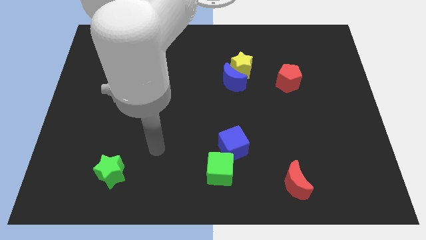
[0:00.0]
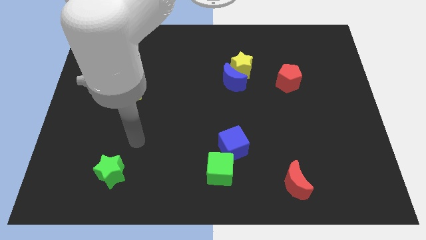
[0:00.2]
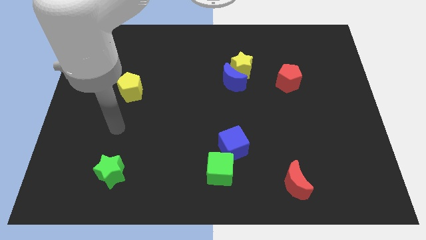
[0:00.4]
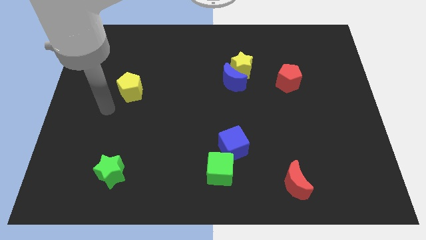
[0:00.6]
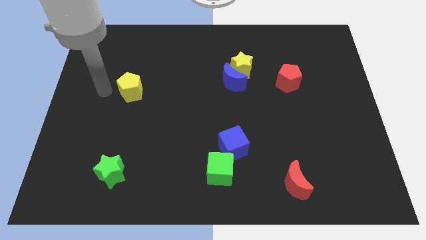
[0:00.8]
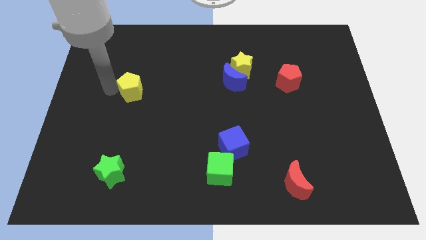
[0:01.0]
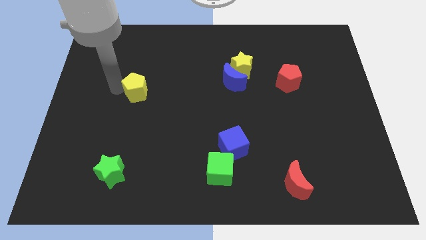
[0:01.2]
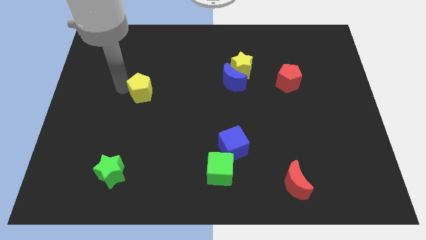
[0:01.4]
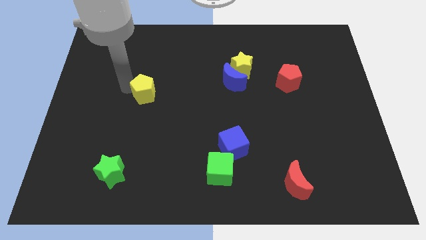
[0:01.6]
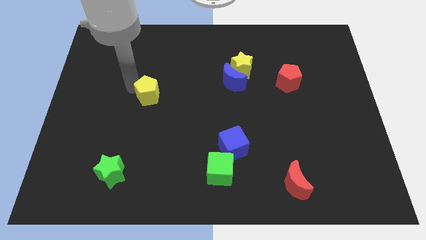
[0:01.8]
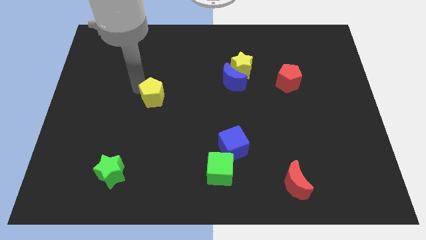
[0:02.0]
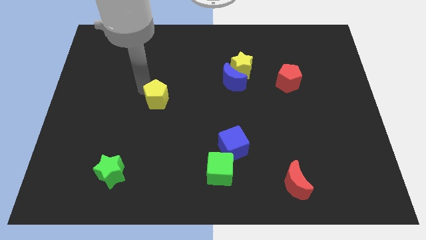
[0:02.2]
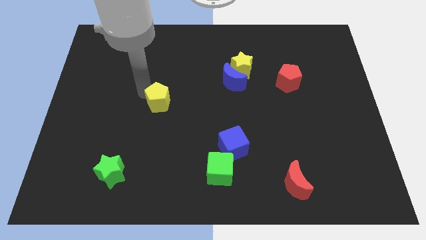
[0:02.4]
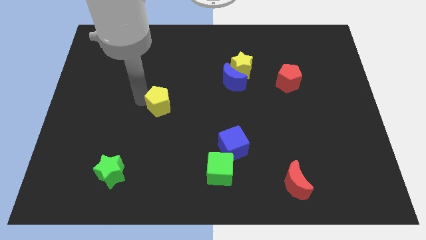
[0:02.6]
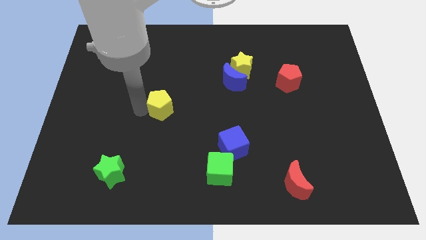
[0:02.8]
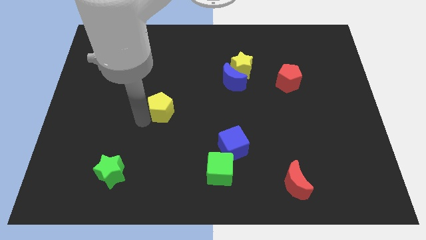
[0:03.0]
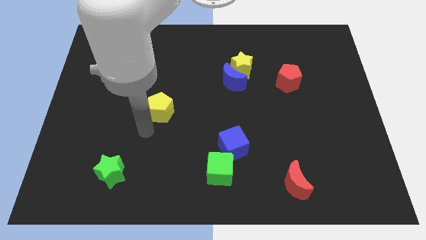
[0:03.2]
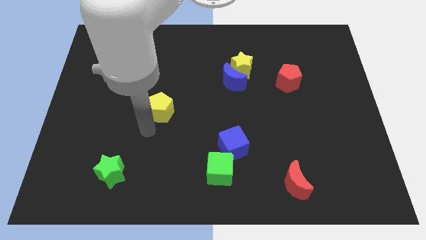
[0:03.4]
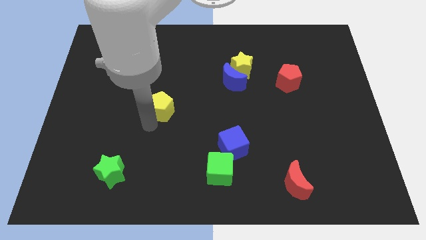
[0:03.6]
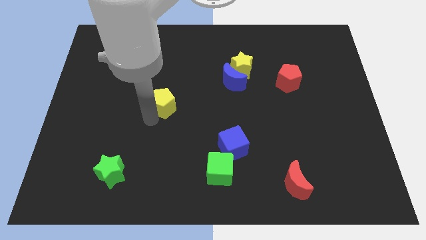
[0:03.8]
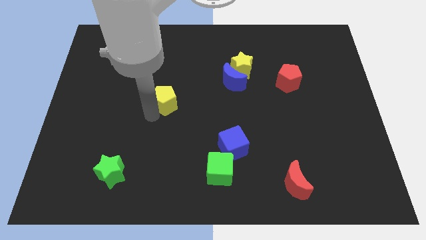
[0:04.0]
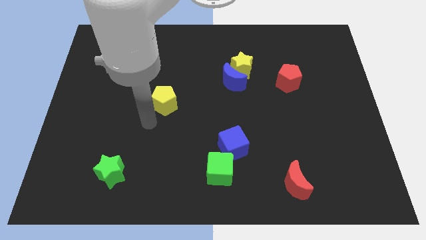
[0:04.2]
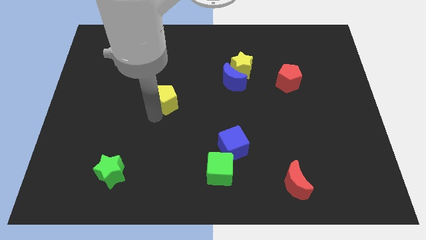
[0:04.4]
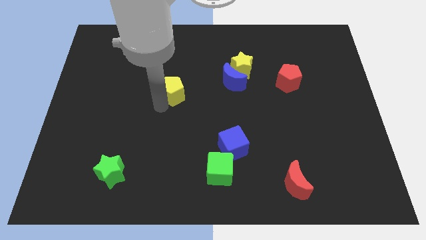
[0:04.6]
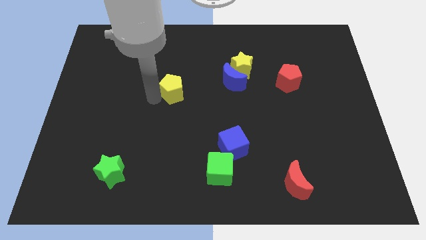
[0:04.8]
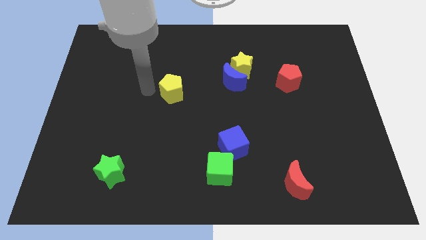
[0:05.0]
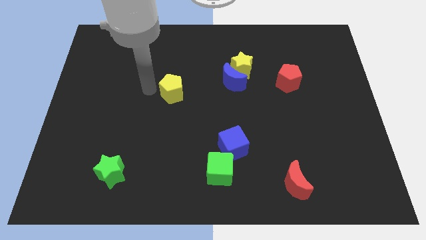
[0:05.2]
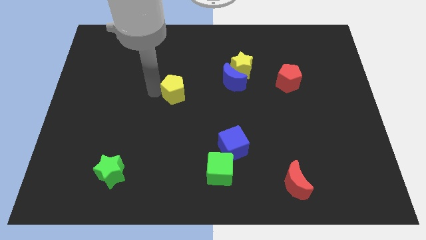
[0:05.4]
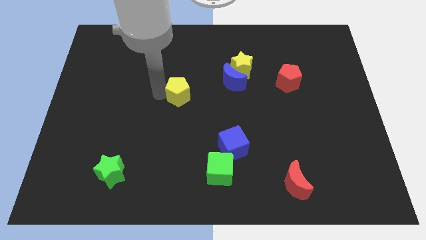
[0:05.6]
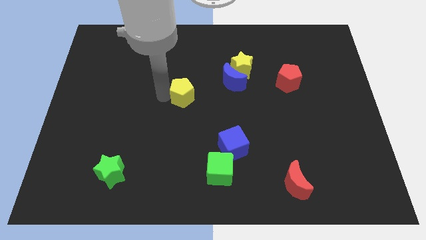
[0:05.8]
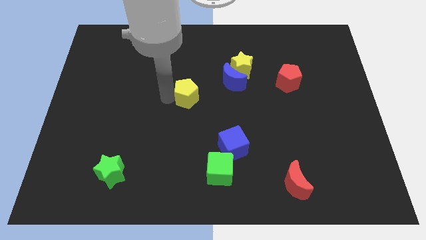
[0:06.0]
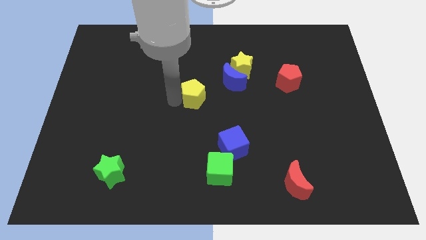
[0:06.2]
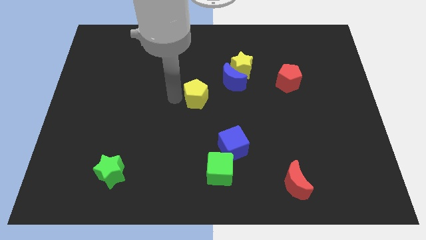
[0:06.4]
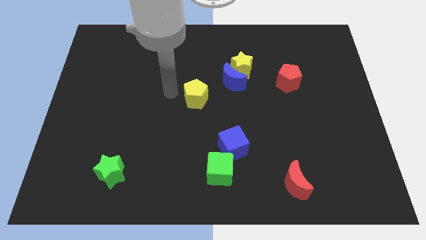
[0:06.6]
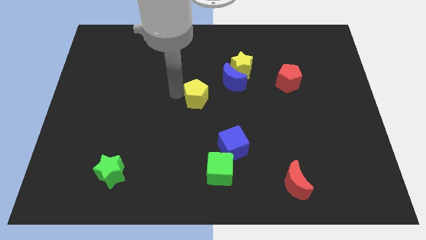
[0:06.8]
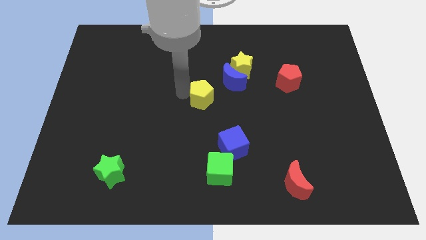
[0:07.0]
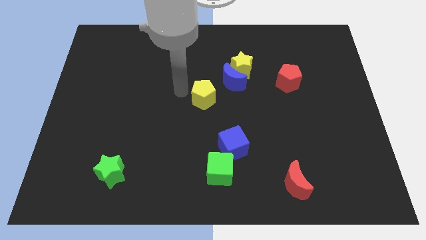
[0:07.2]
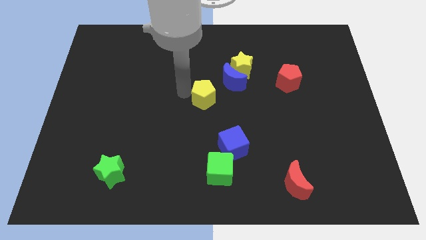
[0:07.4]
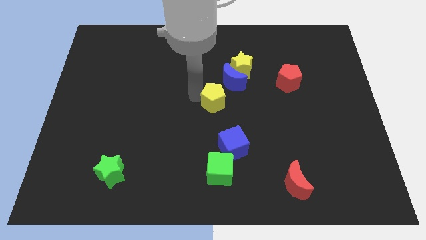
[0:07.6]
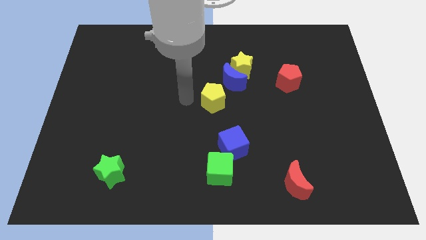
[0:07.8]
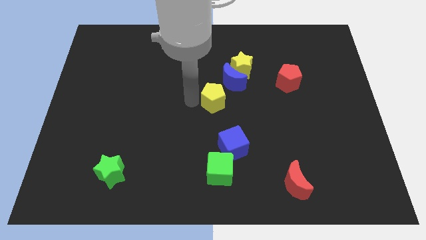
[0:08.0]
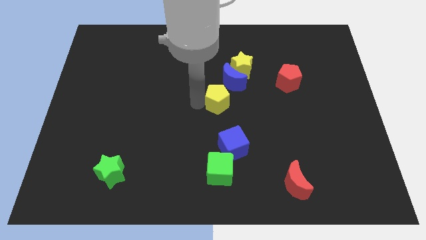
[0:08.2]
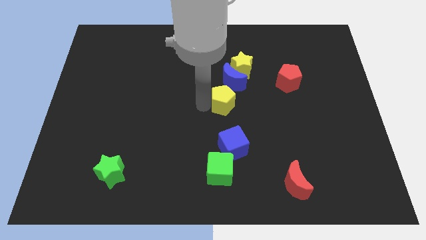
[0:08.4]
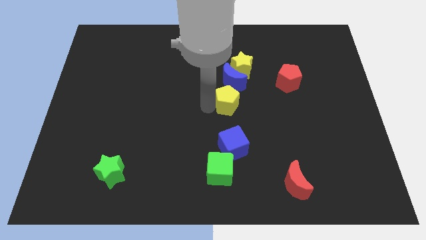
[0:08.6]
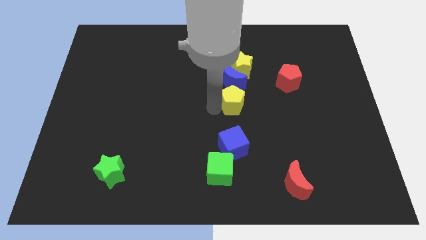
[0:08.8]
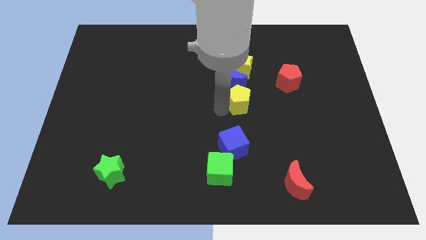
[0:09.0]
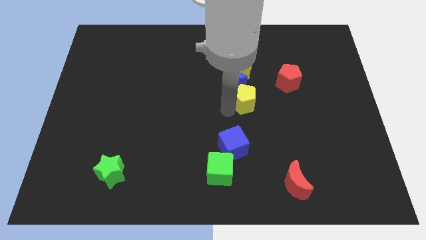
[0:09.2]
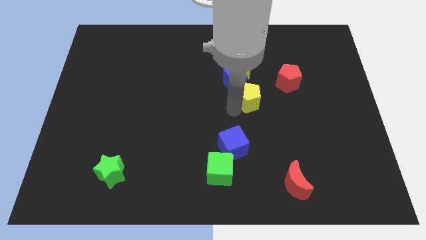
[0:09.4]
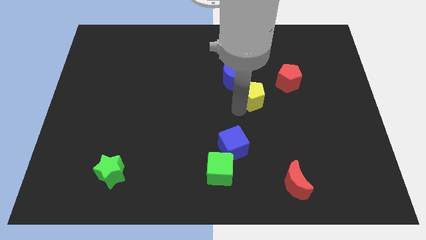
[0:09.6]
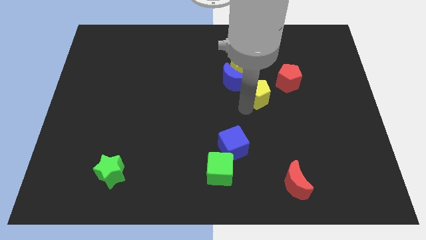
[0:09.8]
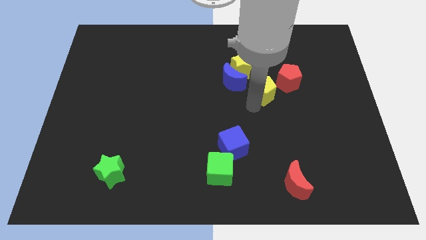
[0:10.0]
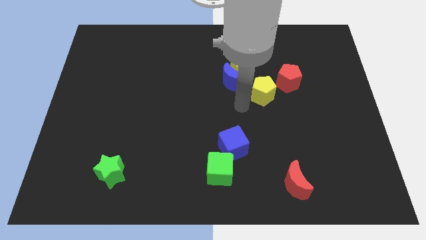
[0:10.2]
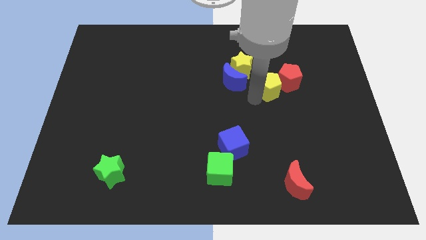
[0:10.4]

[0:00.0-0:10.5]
put the yellow pentagon next to the red pentagon

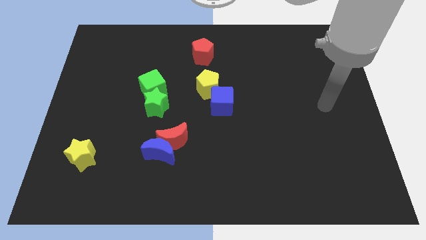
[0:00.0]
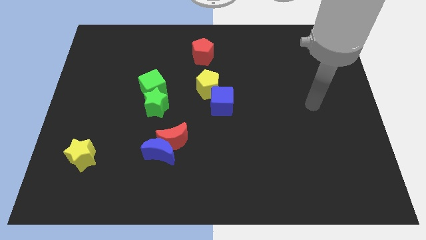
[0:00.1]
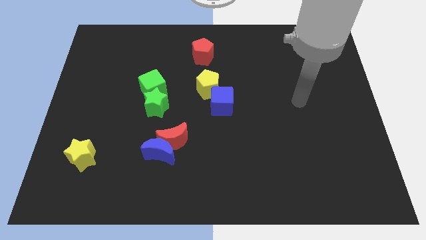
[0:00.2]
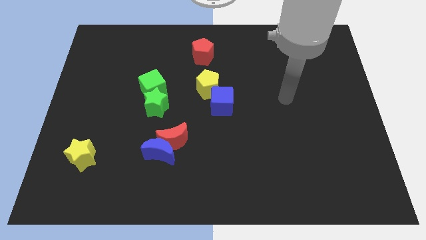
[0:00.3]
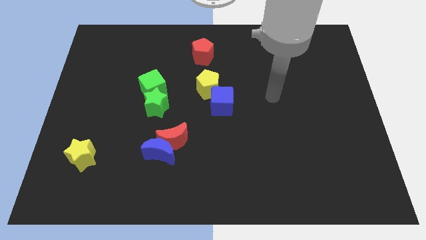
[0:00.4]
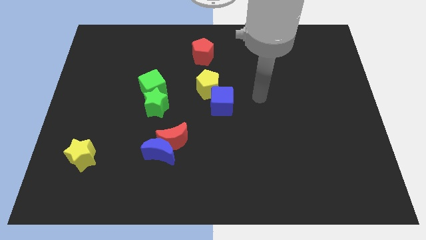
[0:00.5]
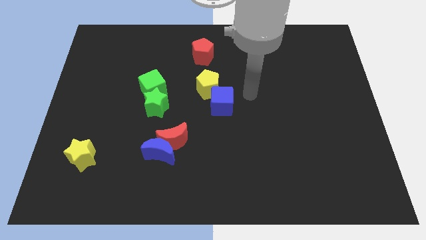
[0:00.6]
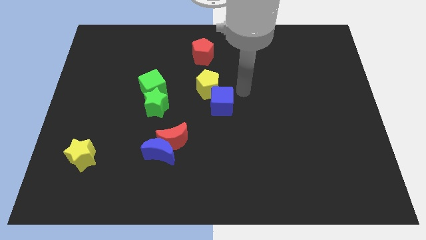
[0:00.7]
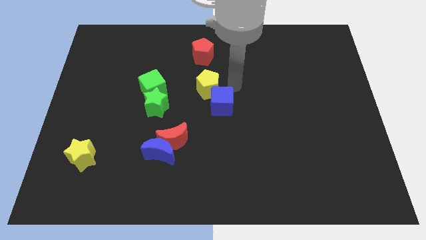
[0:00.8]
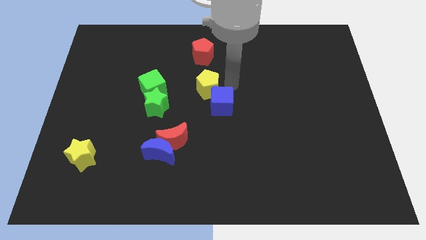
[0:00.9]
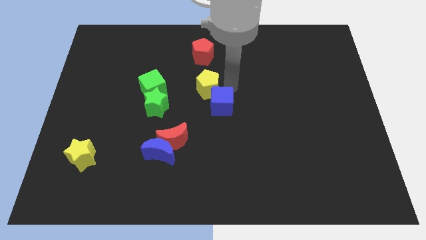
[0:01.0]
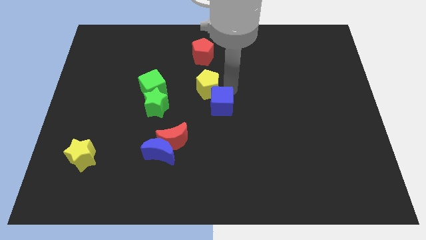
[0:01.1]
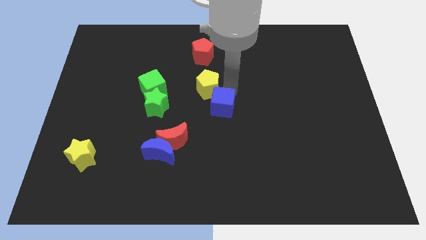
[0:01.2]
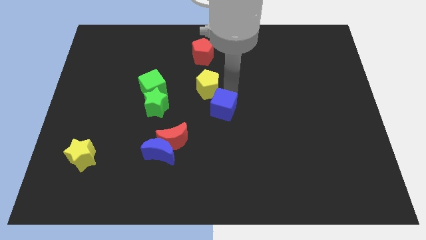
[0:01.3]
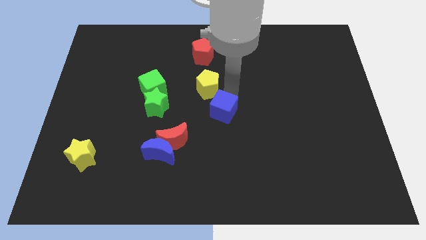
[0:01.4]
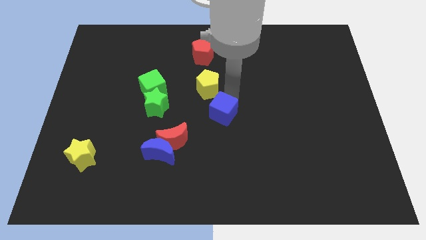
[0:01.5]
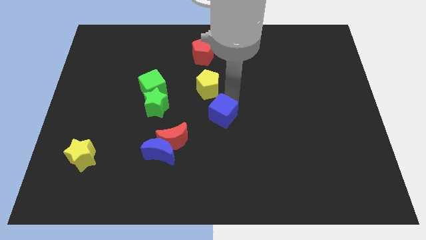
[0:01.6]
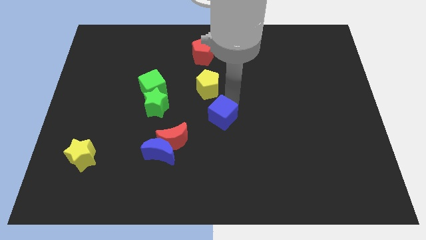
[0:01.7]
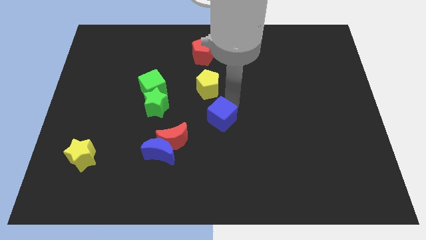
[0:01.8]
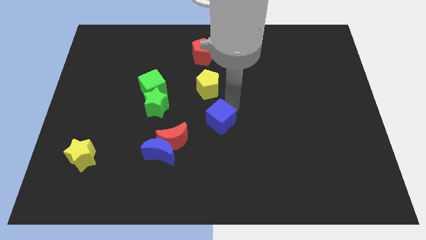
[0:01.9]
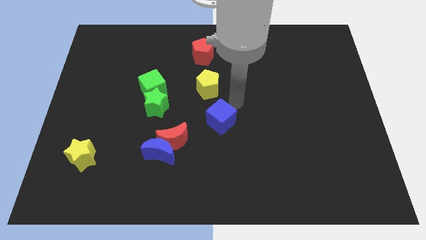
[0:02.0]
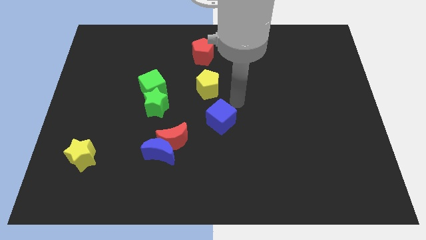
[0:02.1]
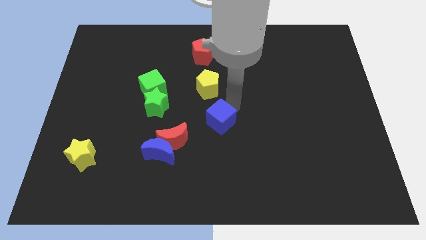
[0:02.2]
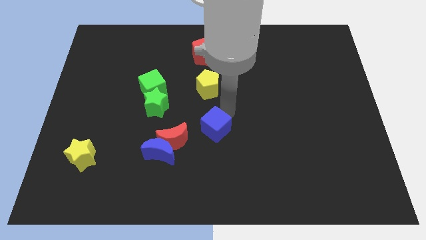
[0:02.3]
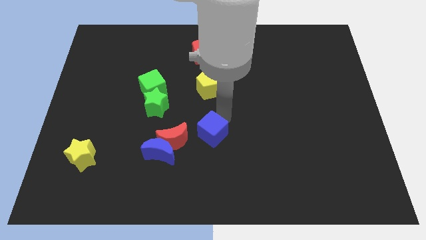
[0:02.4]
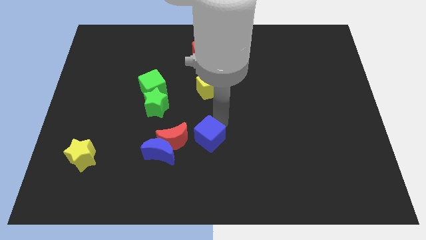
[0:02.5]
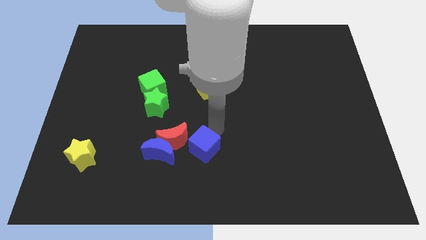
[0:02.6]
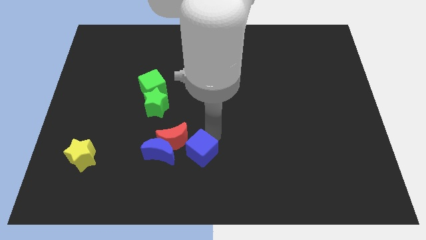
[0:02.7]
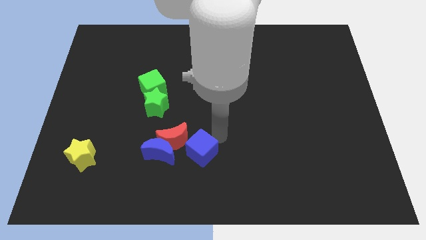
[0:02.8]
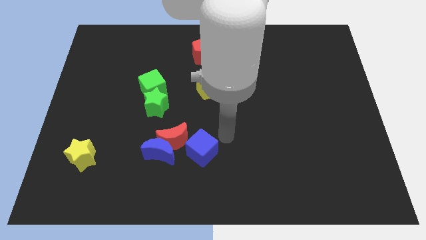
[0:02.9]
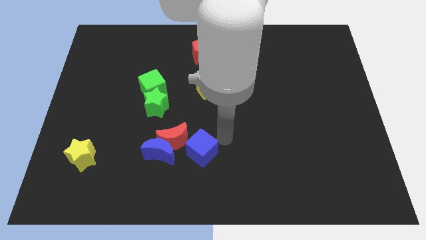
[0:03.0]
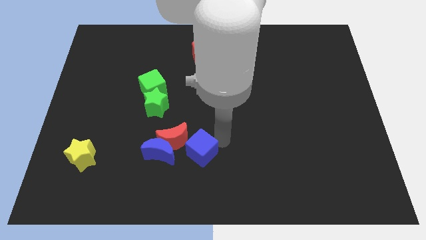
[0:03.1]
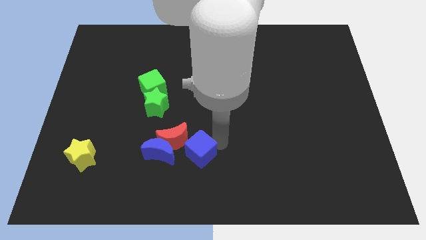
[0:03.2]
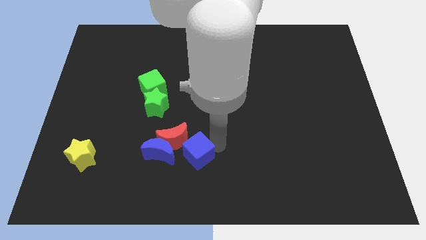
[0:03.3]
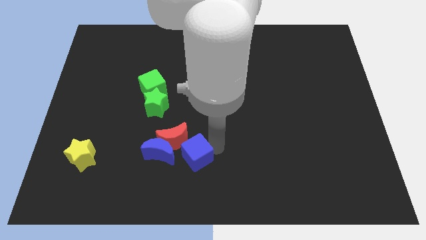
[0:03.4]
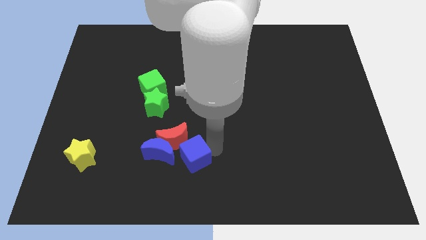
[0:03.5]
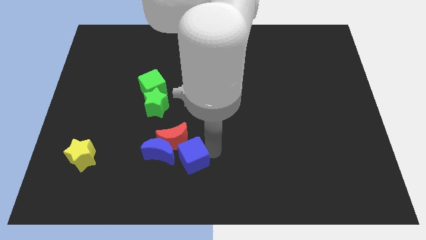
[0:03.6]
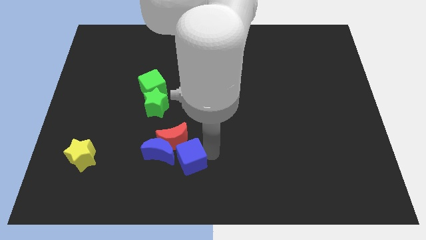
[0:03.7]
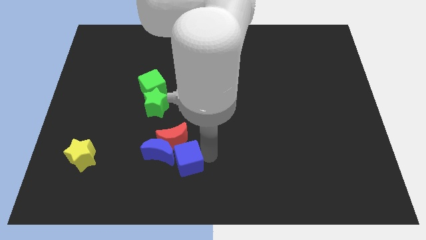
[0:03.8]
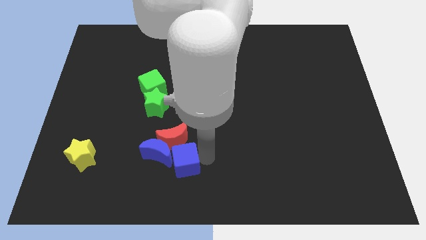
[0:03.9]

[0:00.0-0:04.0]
put the blue cube next to the blue moon
